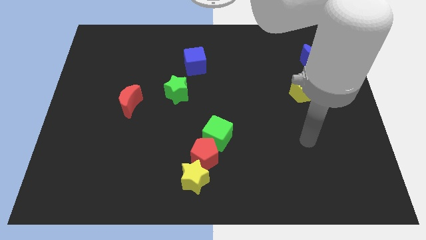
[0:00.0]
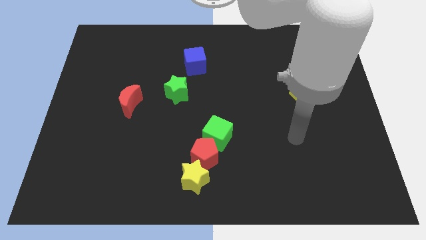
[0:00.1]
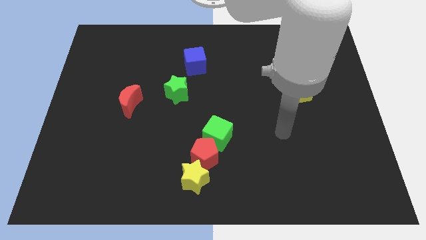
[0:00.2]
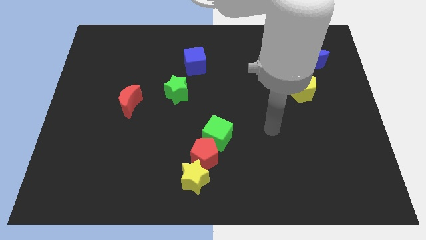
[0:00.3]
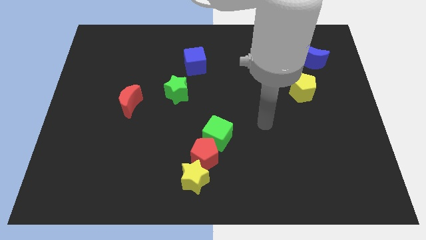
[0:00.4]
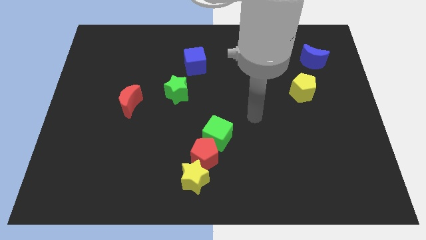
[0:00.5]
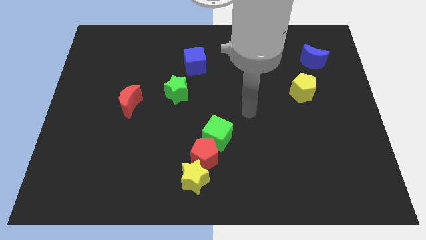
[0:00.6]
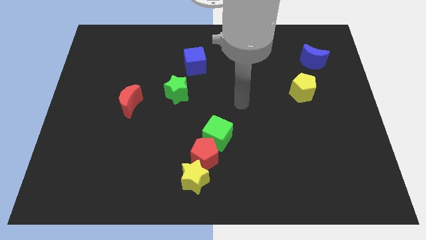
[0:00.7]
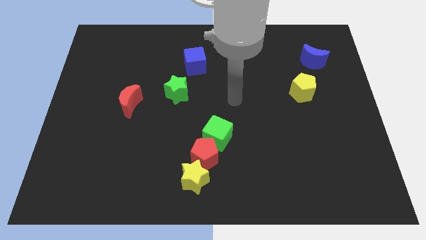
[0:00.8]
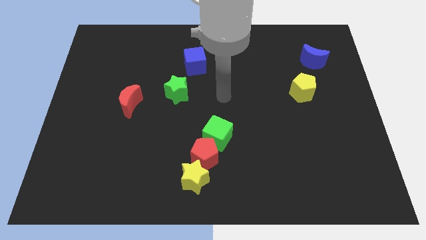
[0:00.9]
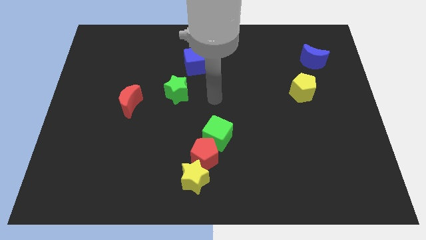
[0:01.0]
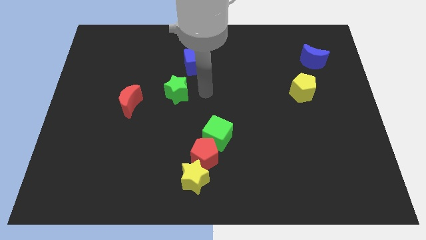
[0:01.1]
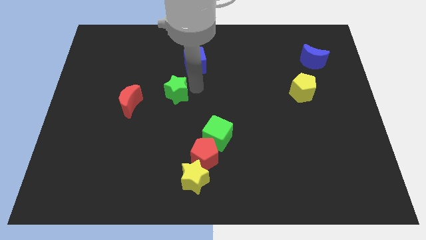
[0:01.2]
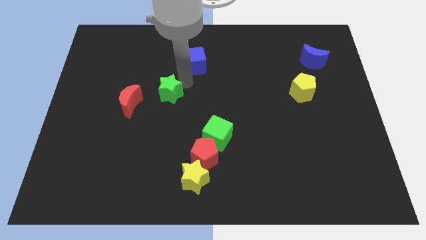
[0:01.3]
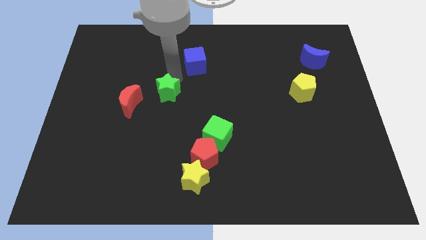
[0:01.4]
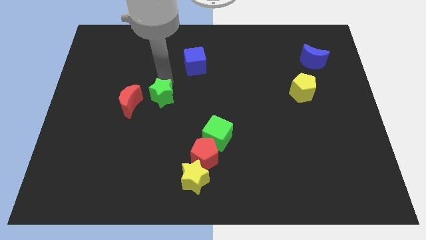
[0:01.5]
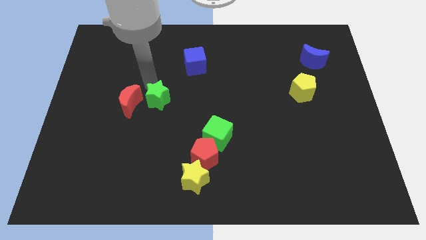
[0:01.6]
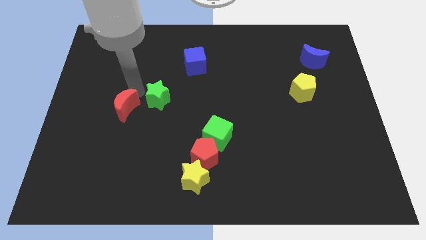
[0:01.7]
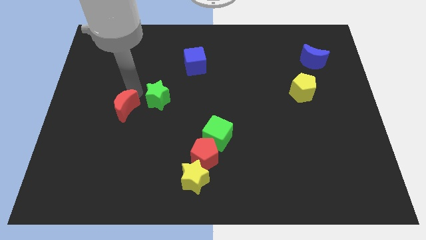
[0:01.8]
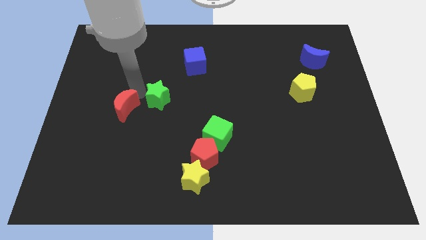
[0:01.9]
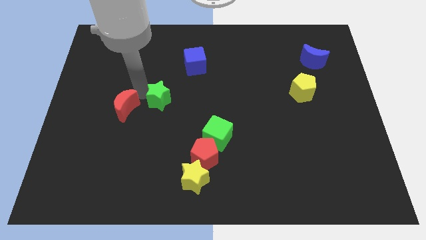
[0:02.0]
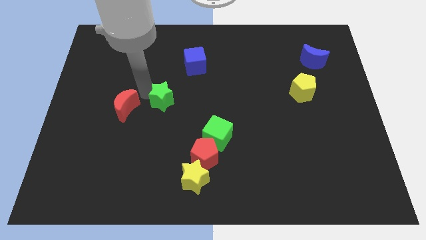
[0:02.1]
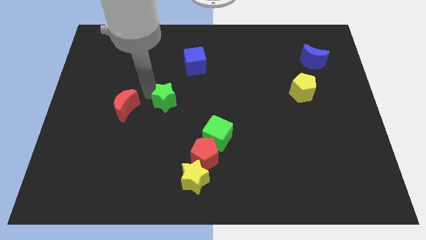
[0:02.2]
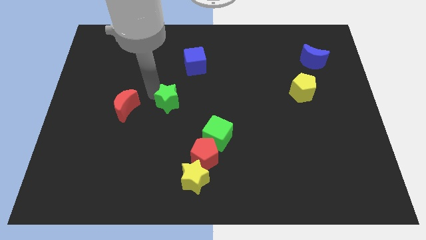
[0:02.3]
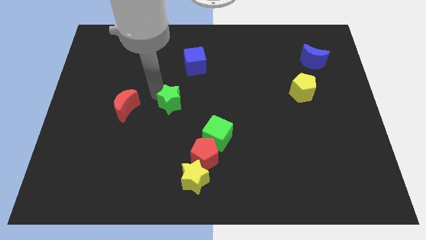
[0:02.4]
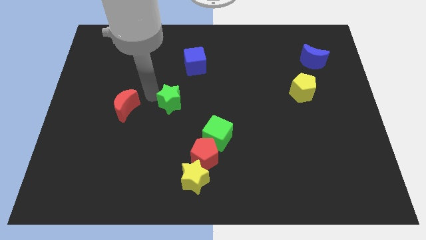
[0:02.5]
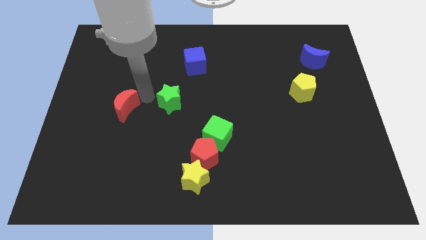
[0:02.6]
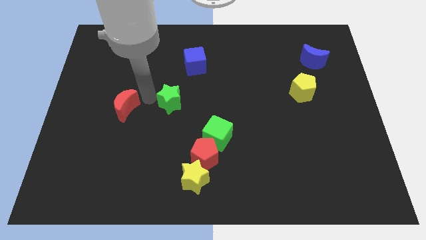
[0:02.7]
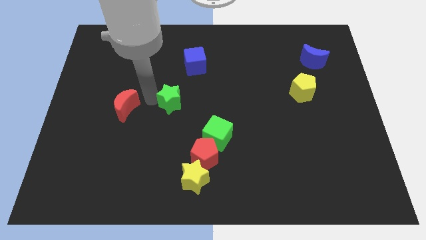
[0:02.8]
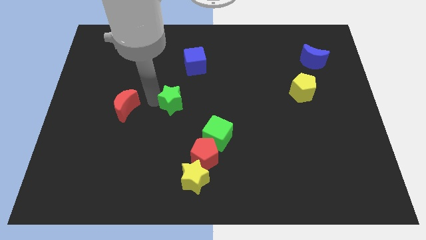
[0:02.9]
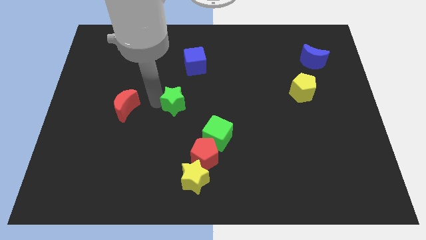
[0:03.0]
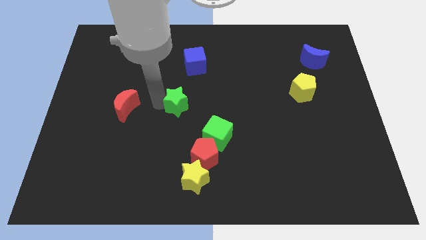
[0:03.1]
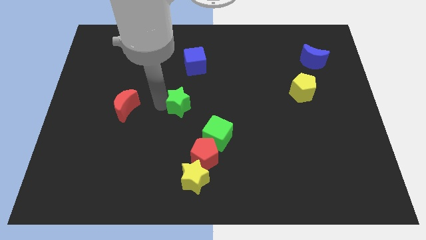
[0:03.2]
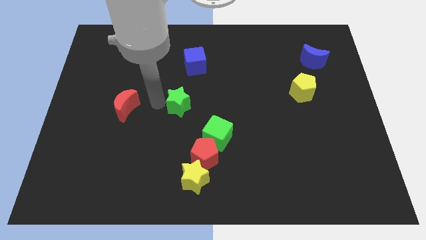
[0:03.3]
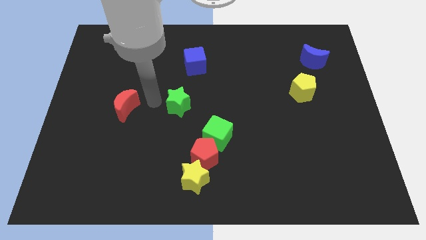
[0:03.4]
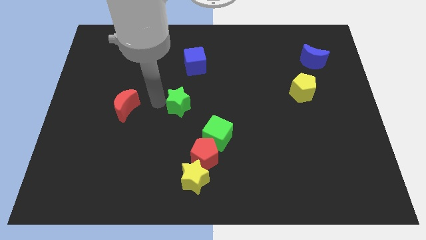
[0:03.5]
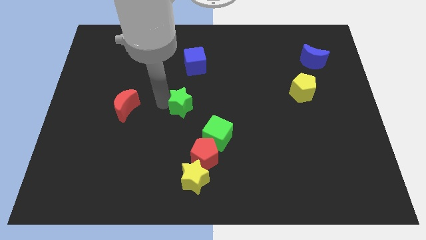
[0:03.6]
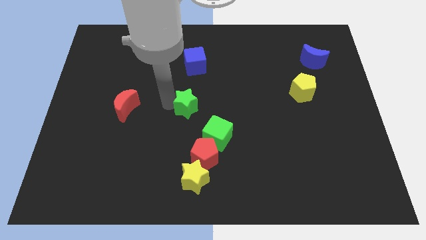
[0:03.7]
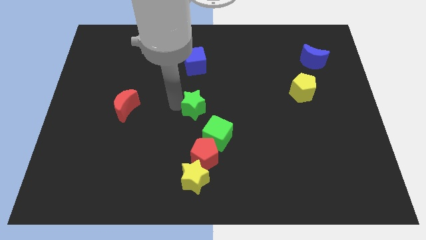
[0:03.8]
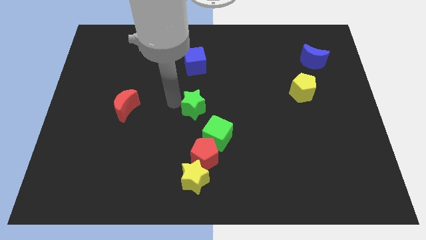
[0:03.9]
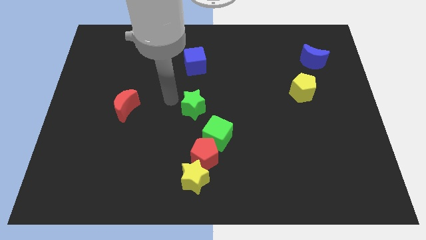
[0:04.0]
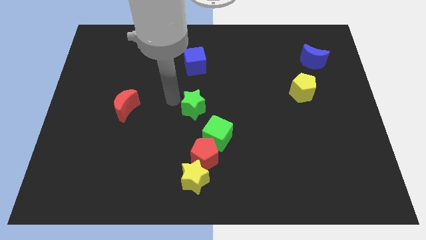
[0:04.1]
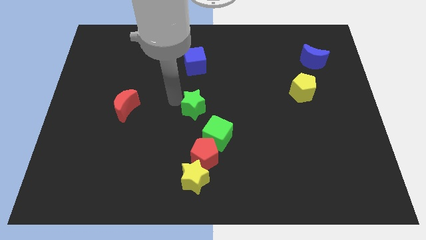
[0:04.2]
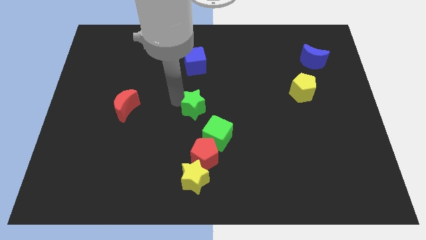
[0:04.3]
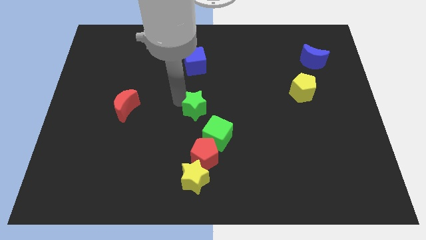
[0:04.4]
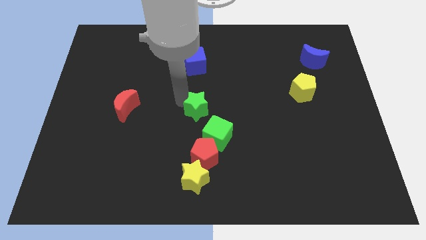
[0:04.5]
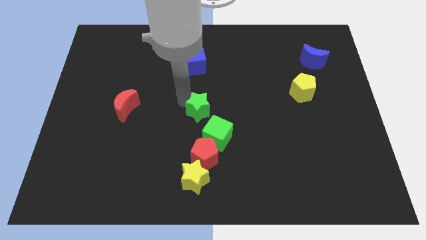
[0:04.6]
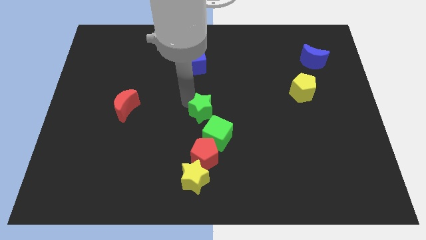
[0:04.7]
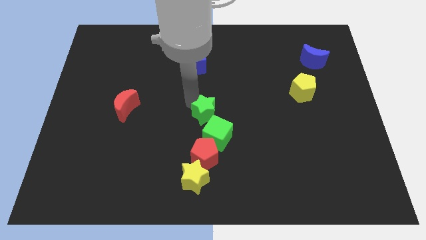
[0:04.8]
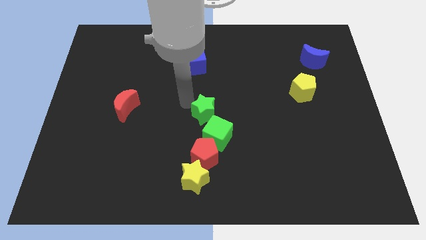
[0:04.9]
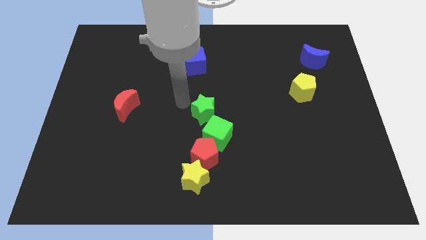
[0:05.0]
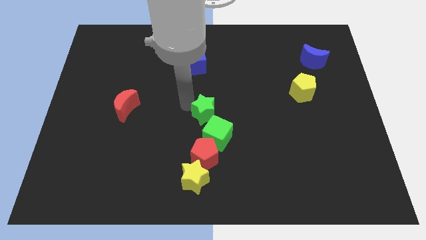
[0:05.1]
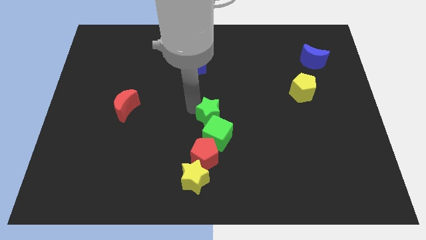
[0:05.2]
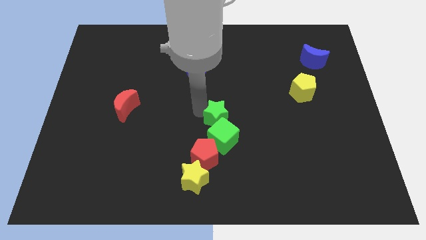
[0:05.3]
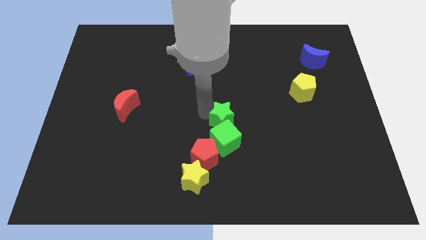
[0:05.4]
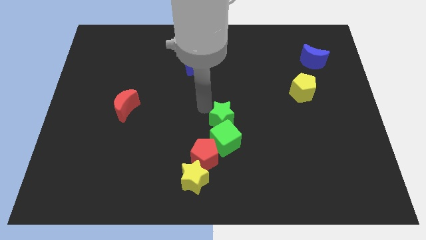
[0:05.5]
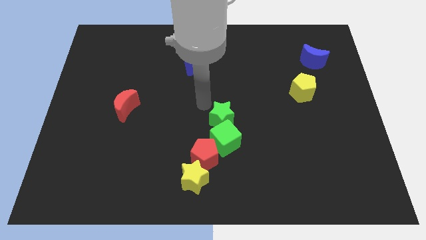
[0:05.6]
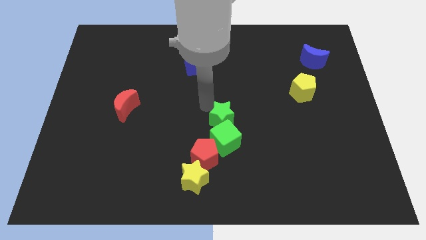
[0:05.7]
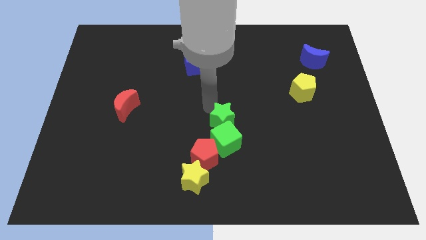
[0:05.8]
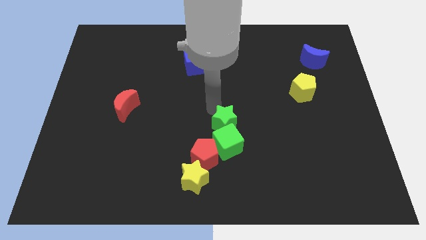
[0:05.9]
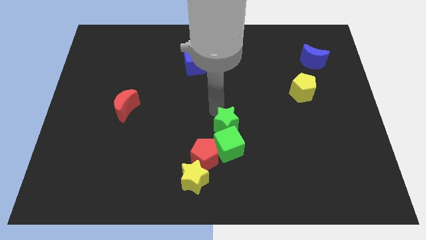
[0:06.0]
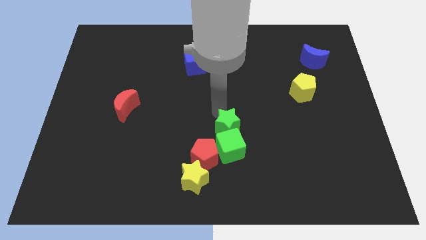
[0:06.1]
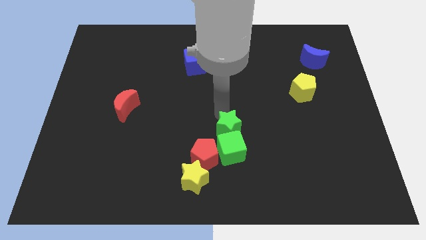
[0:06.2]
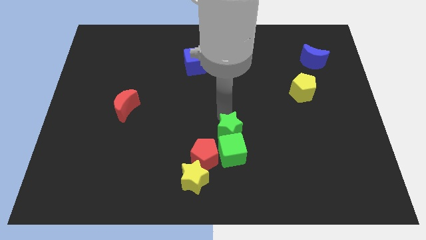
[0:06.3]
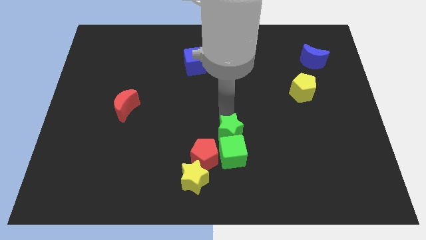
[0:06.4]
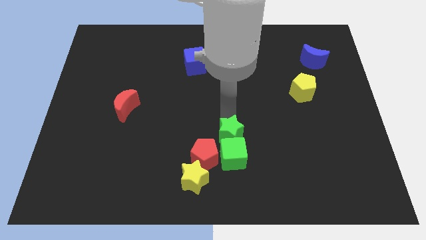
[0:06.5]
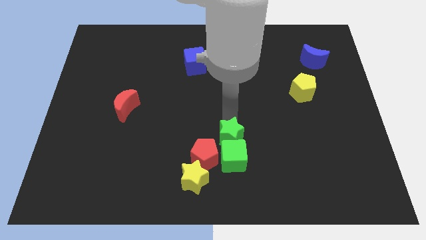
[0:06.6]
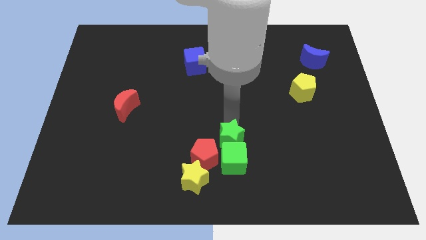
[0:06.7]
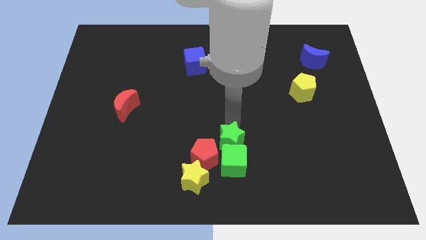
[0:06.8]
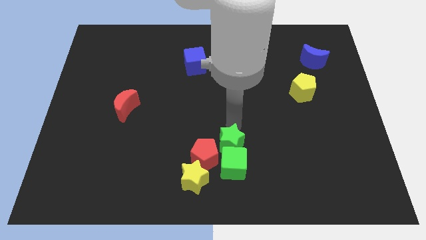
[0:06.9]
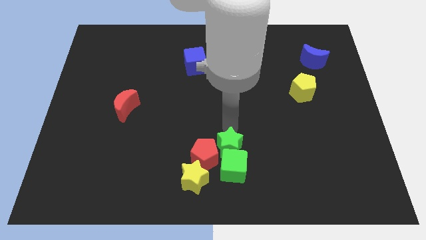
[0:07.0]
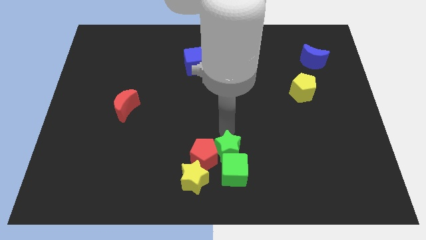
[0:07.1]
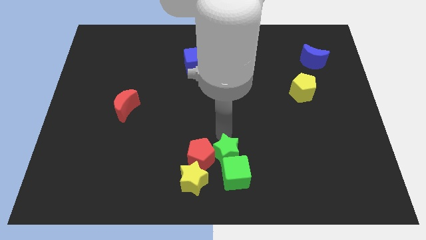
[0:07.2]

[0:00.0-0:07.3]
slide the green star downwards and then right

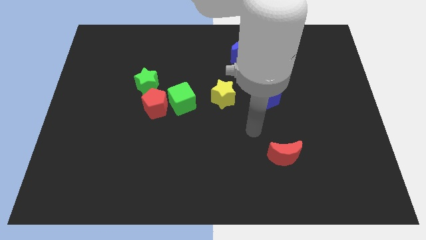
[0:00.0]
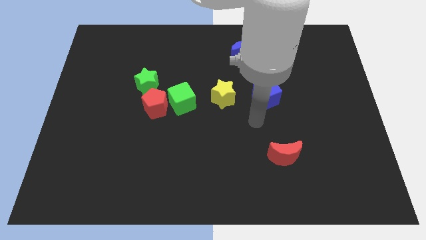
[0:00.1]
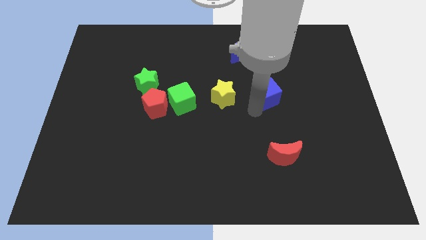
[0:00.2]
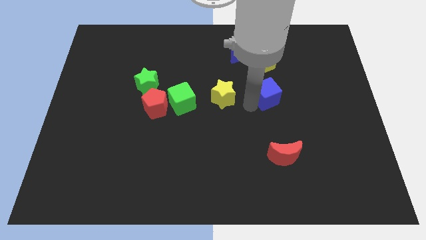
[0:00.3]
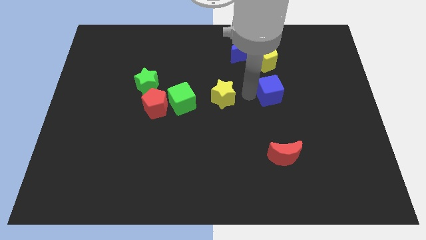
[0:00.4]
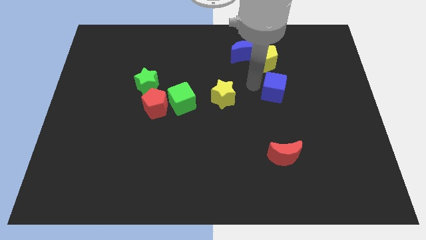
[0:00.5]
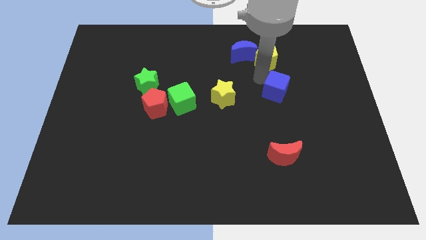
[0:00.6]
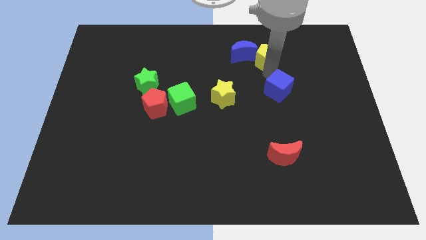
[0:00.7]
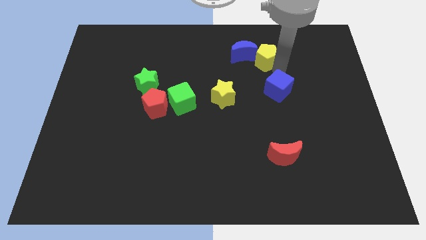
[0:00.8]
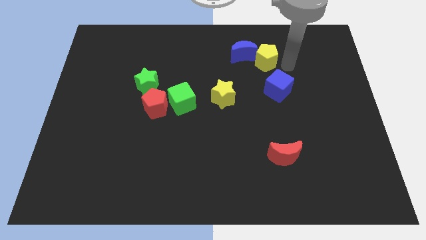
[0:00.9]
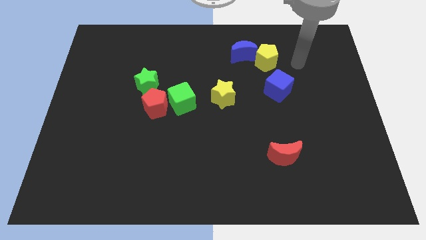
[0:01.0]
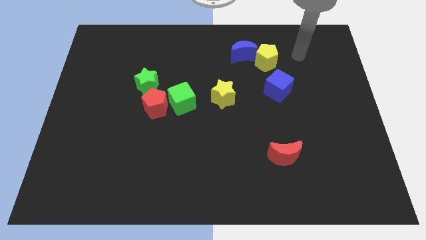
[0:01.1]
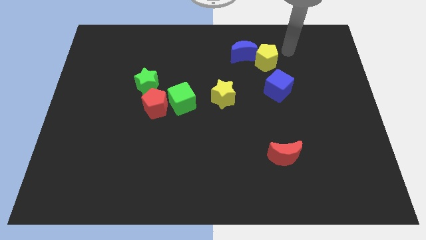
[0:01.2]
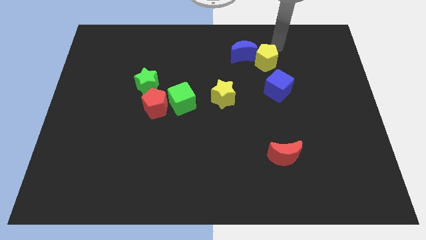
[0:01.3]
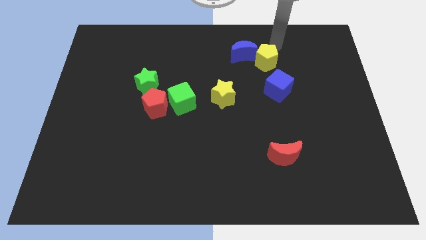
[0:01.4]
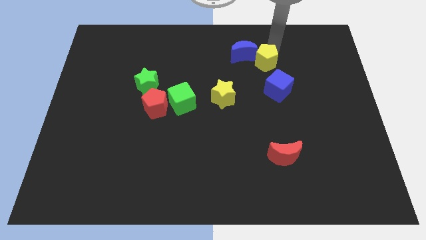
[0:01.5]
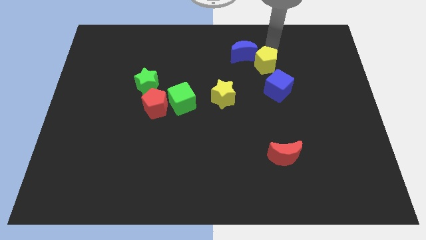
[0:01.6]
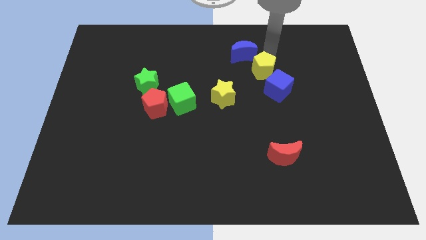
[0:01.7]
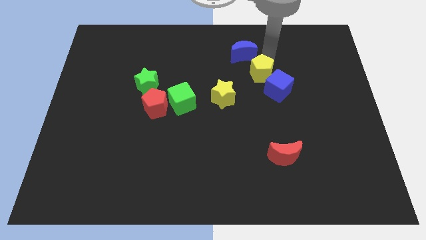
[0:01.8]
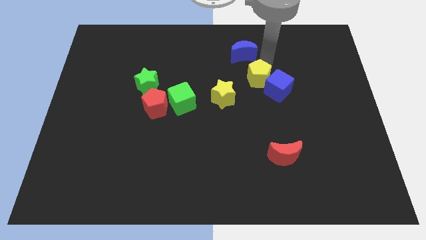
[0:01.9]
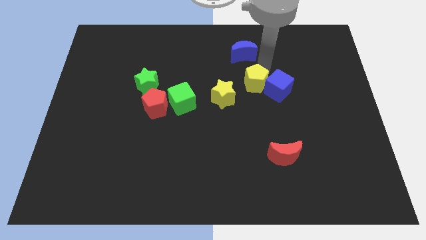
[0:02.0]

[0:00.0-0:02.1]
slightly slide the yellow pentagon down
